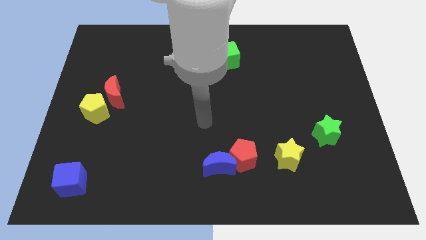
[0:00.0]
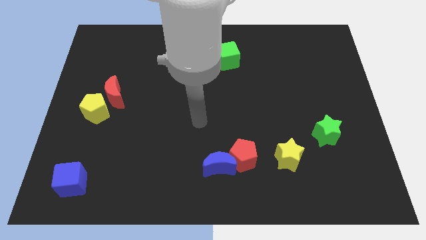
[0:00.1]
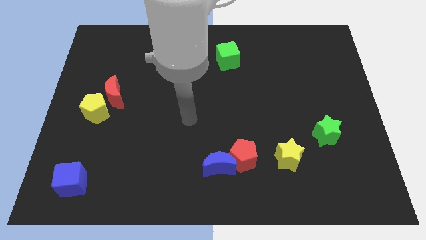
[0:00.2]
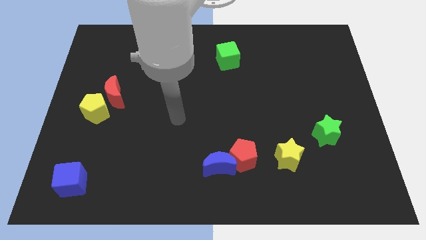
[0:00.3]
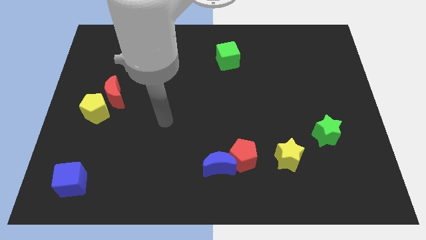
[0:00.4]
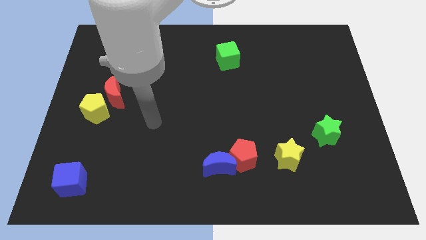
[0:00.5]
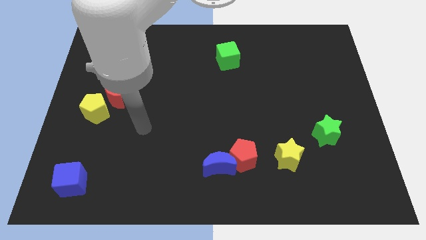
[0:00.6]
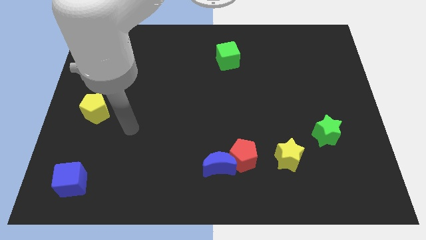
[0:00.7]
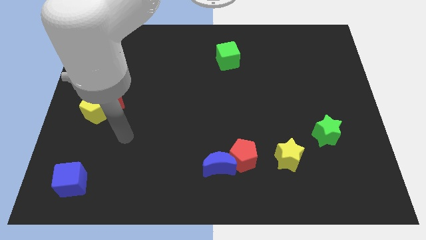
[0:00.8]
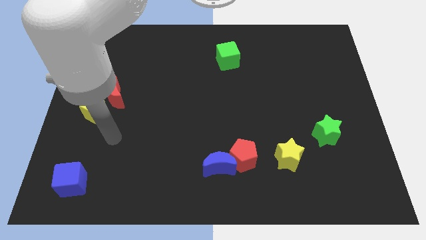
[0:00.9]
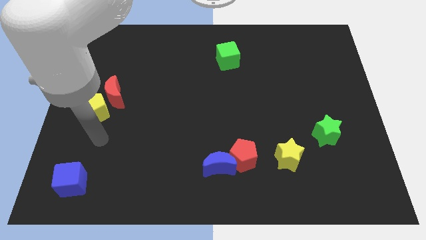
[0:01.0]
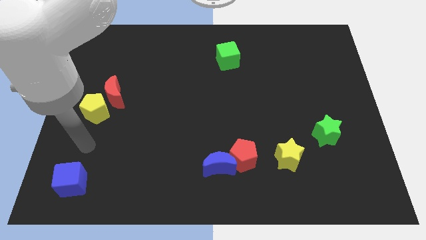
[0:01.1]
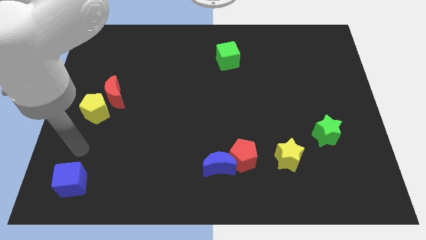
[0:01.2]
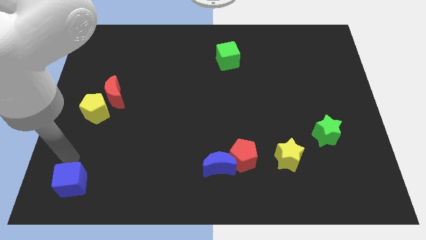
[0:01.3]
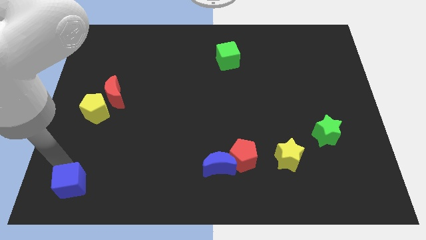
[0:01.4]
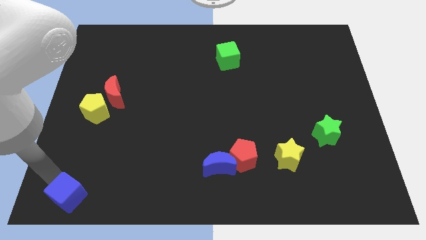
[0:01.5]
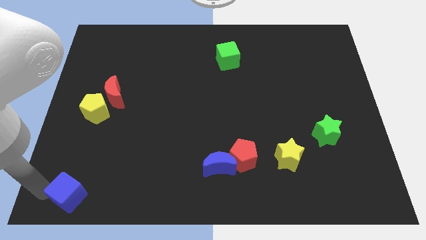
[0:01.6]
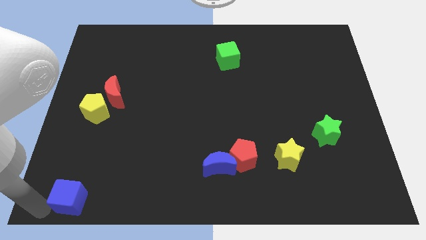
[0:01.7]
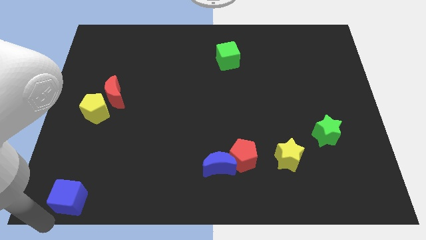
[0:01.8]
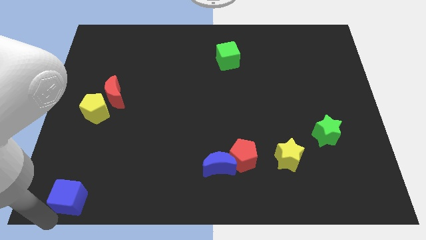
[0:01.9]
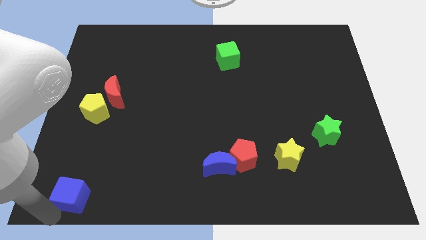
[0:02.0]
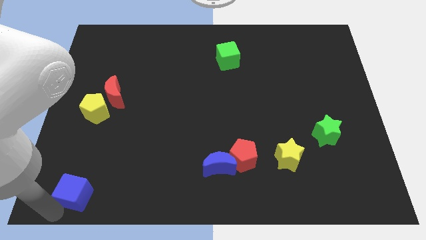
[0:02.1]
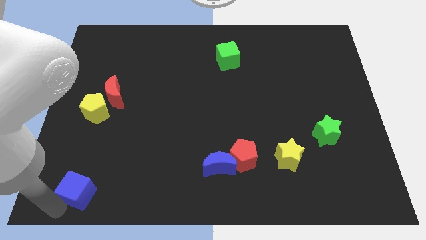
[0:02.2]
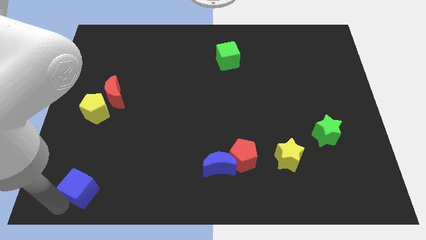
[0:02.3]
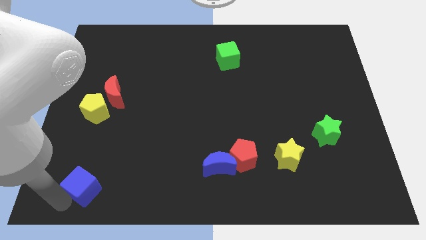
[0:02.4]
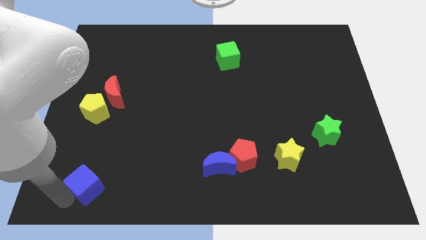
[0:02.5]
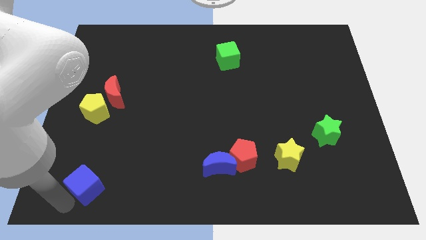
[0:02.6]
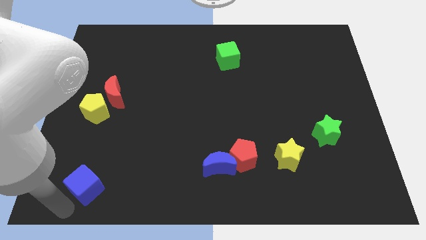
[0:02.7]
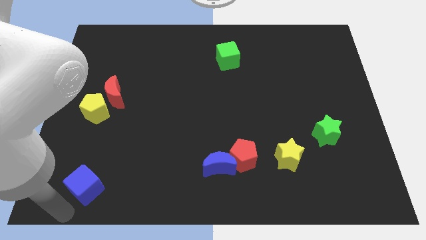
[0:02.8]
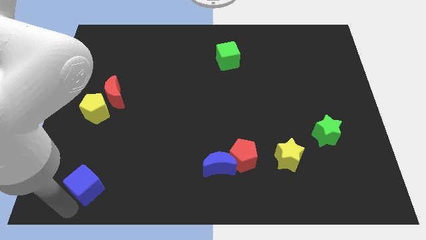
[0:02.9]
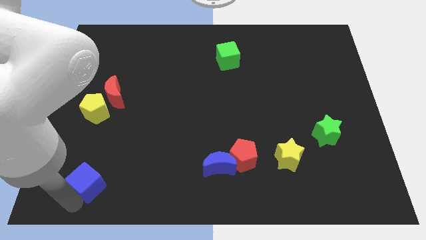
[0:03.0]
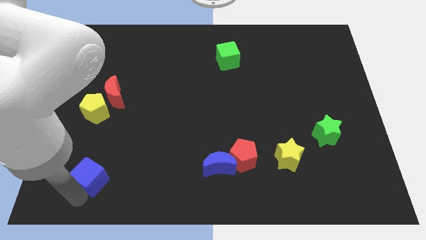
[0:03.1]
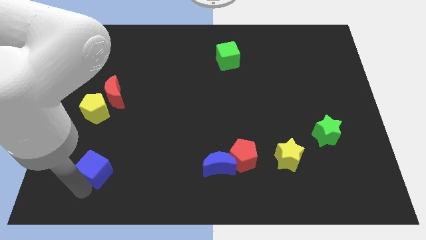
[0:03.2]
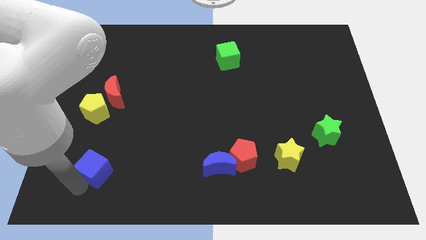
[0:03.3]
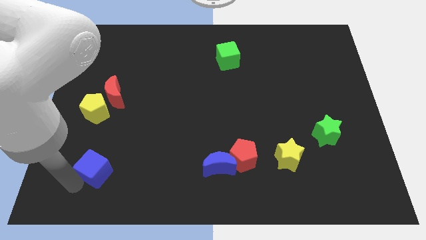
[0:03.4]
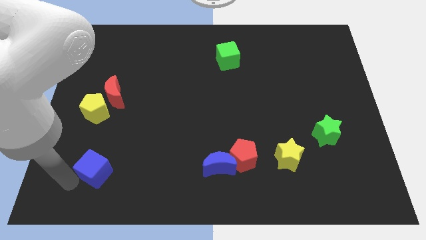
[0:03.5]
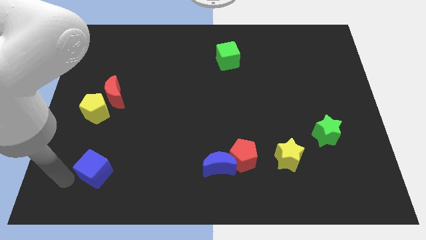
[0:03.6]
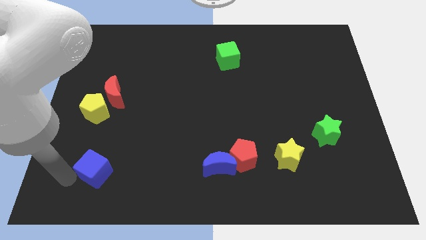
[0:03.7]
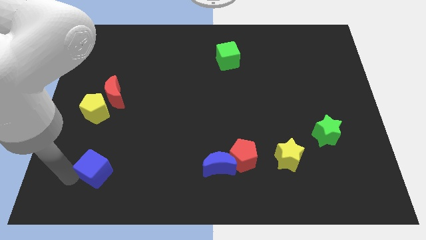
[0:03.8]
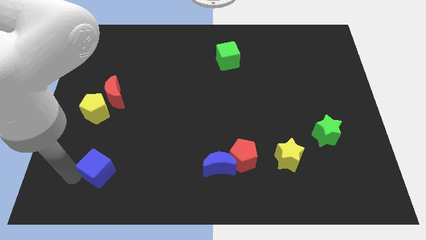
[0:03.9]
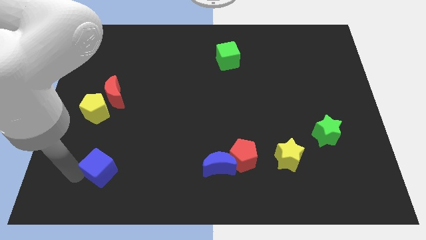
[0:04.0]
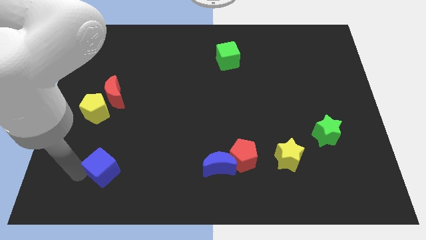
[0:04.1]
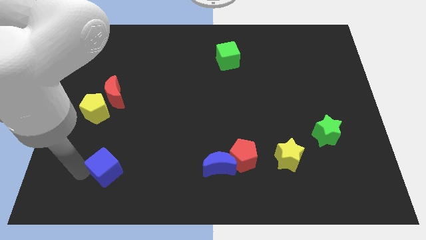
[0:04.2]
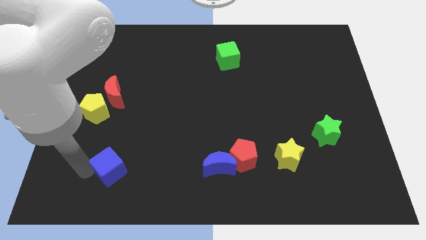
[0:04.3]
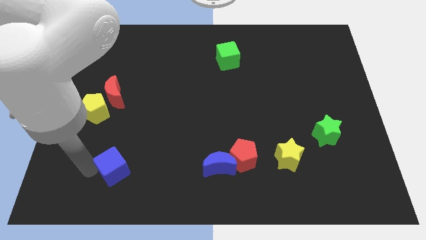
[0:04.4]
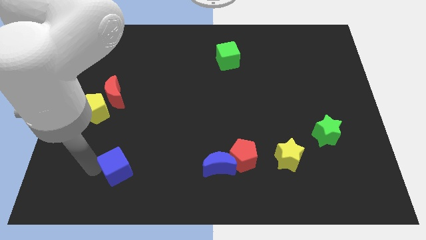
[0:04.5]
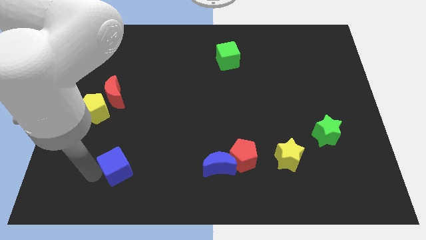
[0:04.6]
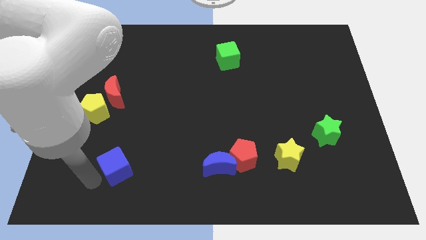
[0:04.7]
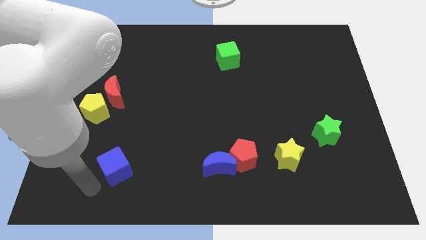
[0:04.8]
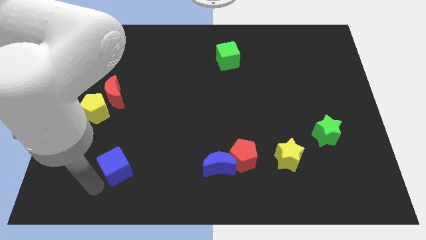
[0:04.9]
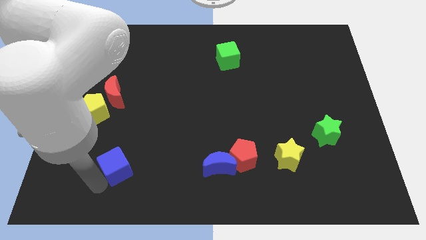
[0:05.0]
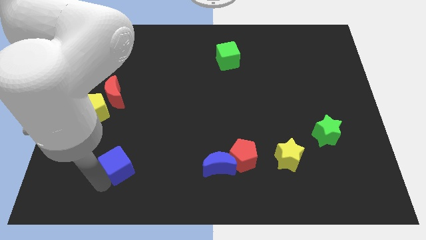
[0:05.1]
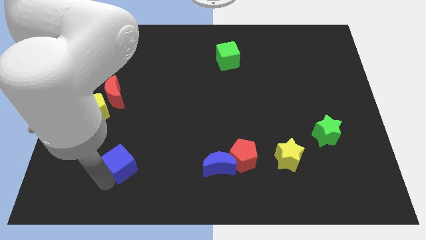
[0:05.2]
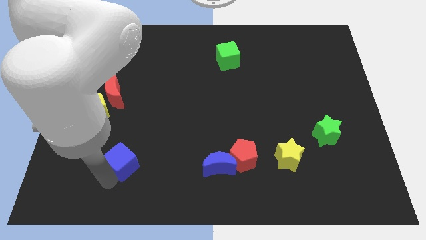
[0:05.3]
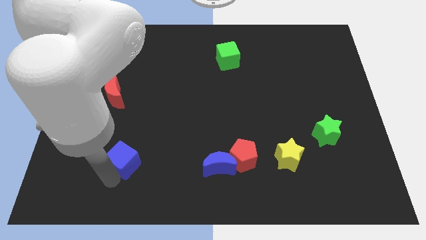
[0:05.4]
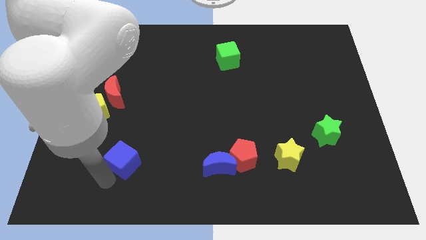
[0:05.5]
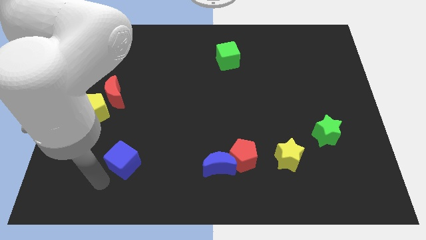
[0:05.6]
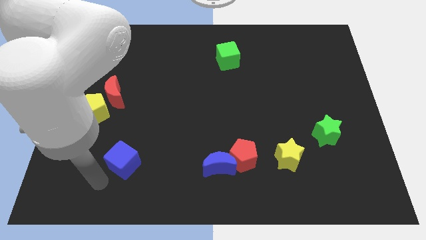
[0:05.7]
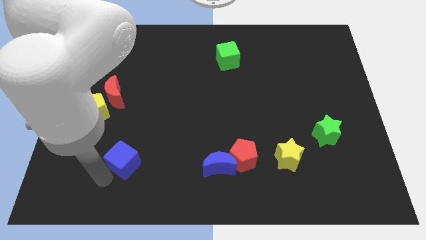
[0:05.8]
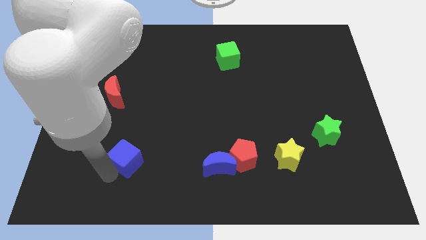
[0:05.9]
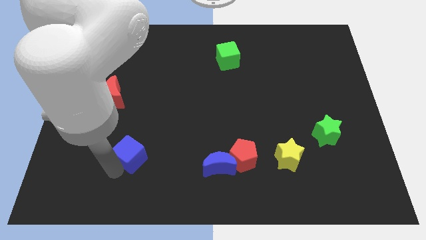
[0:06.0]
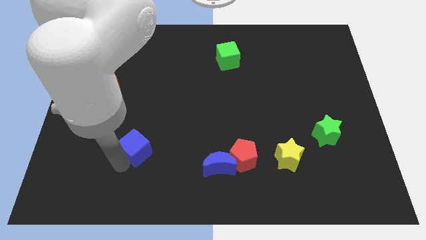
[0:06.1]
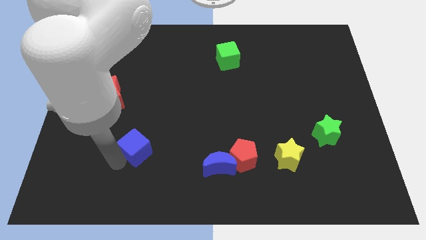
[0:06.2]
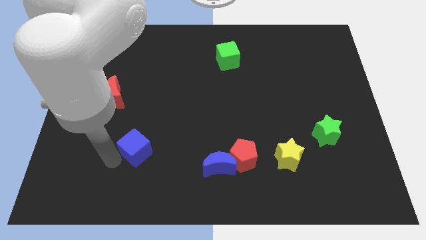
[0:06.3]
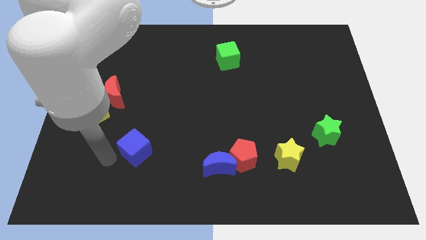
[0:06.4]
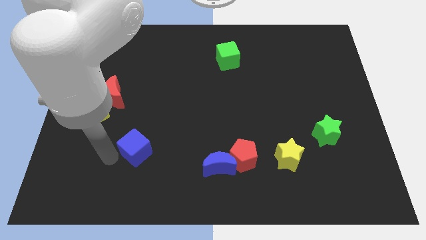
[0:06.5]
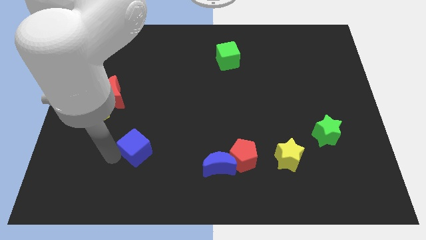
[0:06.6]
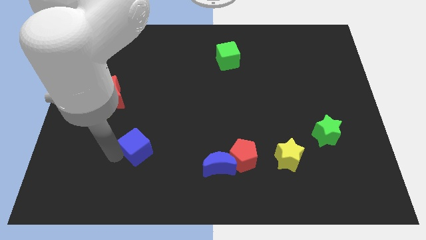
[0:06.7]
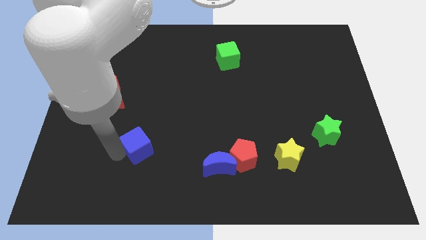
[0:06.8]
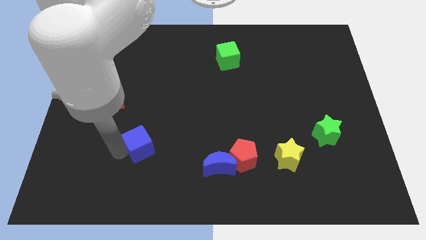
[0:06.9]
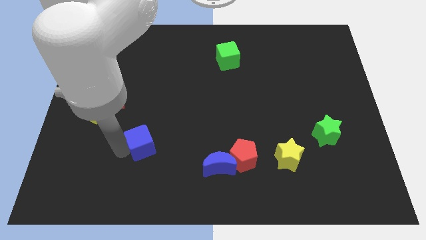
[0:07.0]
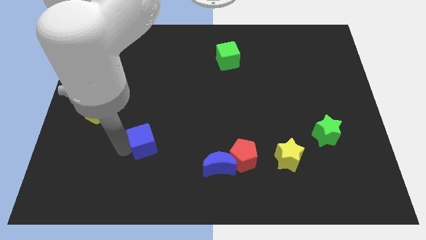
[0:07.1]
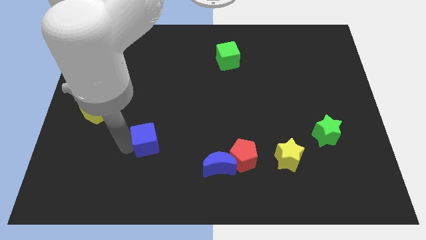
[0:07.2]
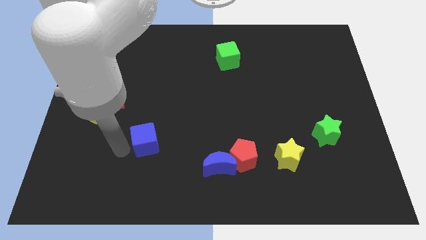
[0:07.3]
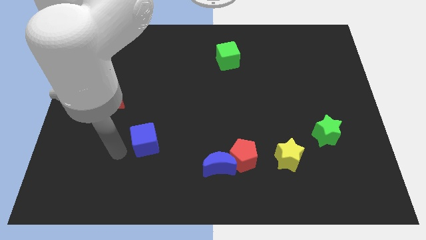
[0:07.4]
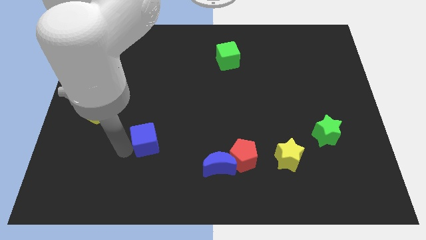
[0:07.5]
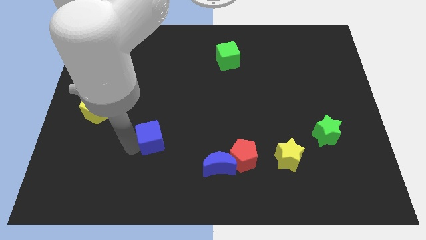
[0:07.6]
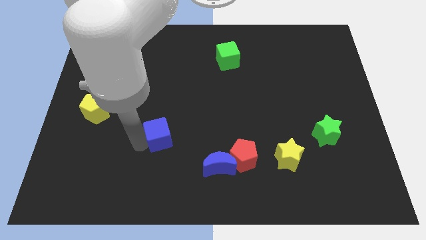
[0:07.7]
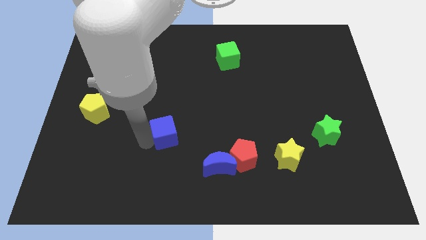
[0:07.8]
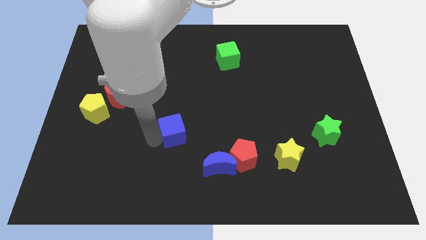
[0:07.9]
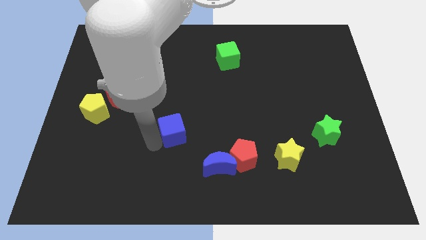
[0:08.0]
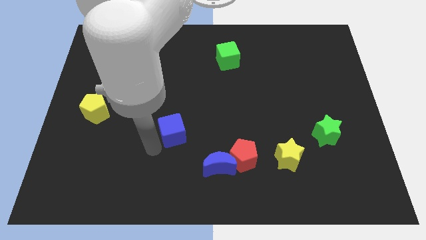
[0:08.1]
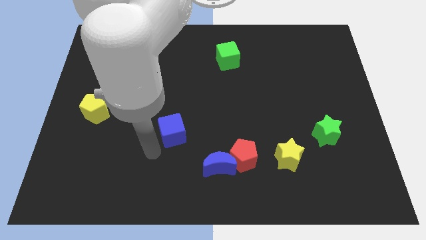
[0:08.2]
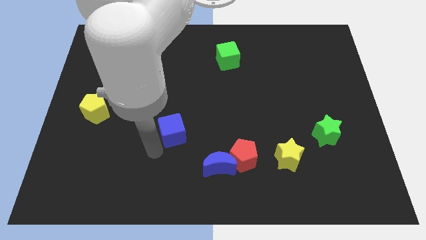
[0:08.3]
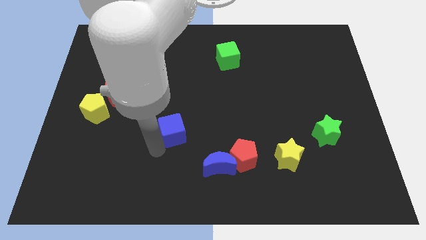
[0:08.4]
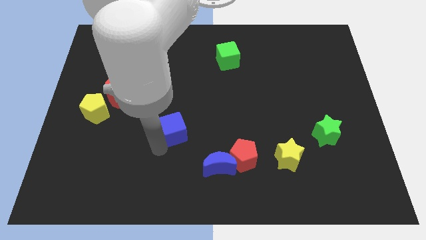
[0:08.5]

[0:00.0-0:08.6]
move the blue cube to the center
